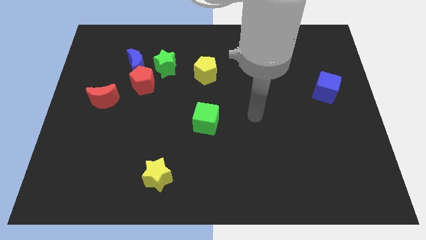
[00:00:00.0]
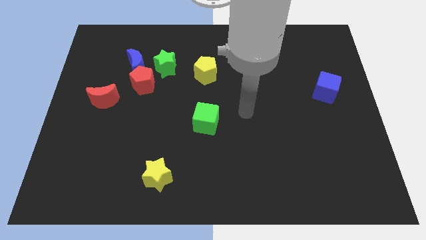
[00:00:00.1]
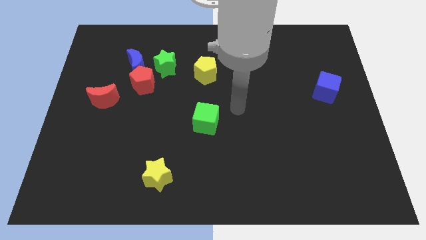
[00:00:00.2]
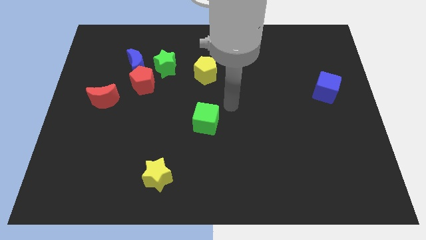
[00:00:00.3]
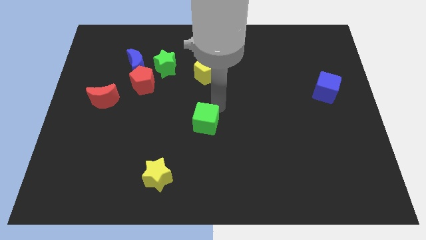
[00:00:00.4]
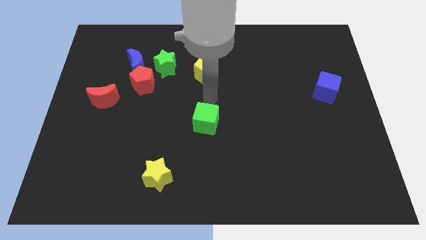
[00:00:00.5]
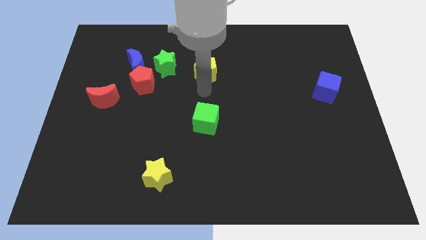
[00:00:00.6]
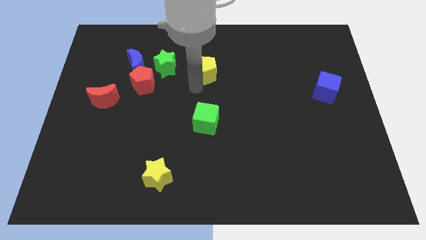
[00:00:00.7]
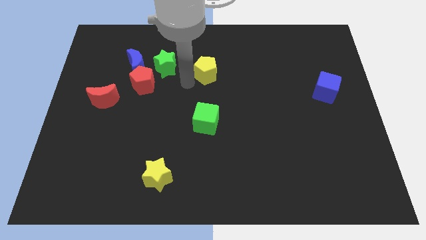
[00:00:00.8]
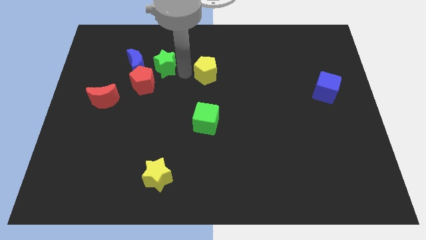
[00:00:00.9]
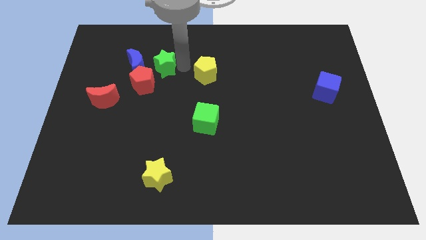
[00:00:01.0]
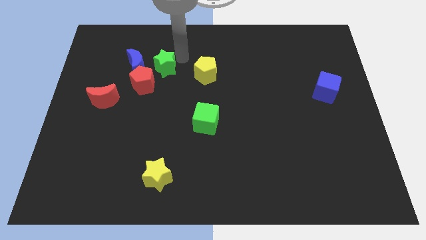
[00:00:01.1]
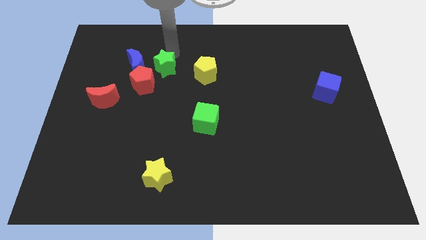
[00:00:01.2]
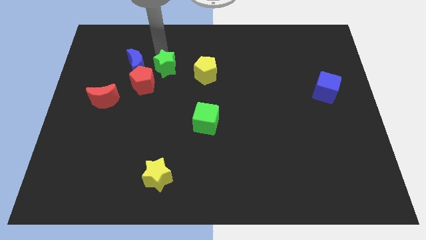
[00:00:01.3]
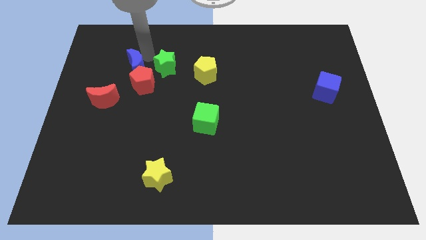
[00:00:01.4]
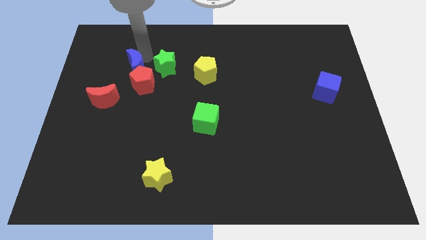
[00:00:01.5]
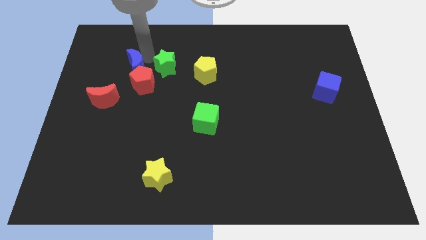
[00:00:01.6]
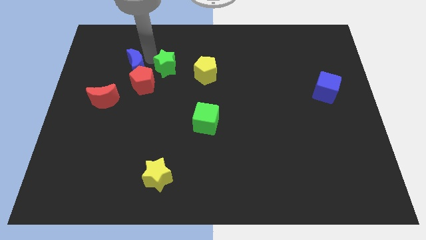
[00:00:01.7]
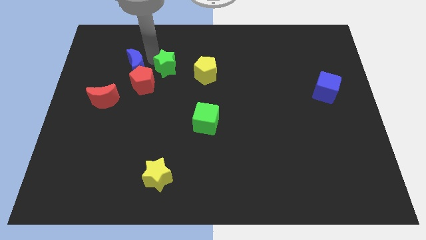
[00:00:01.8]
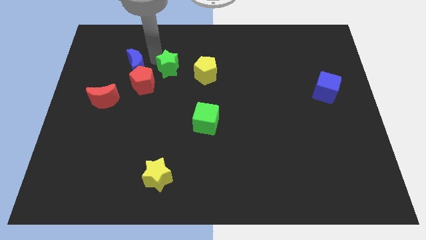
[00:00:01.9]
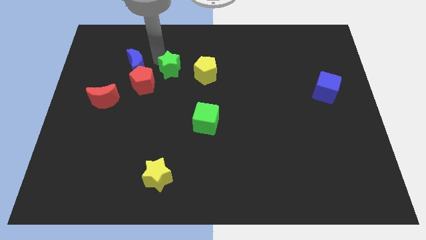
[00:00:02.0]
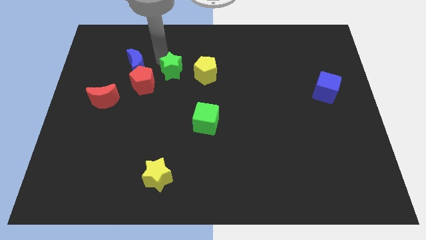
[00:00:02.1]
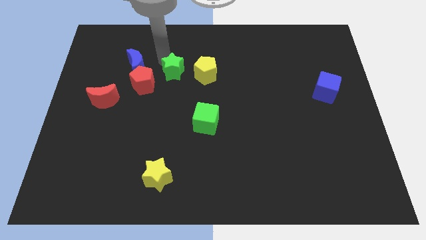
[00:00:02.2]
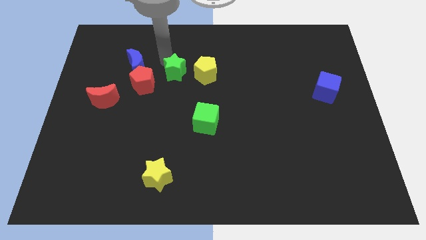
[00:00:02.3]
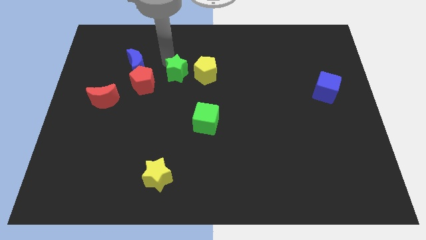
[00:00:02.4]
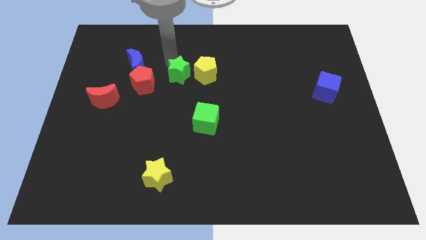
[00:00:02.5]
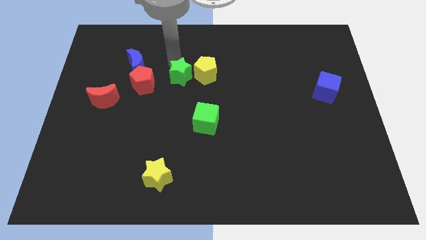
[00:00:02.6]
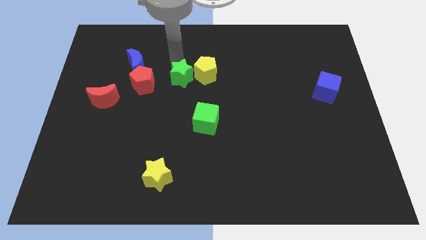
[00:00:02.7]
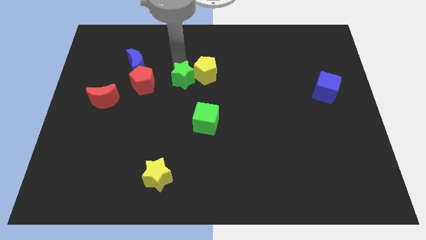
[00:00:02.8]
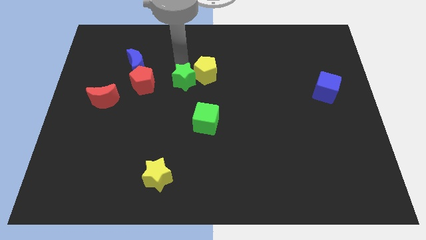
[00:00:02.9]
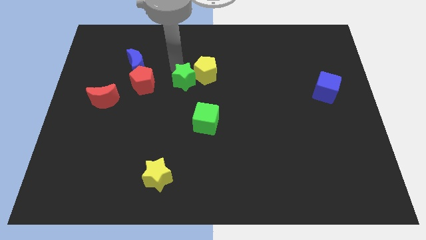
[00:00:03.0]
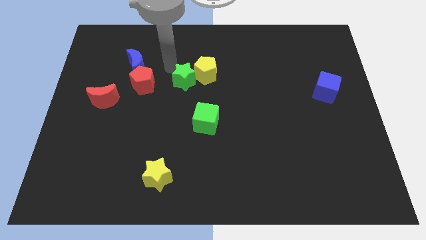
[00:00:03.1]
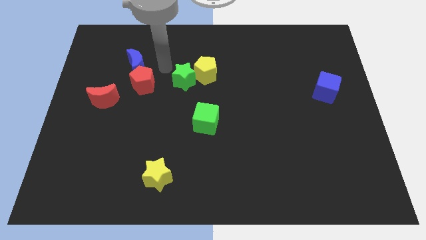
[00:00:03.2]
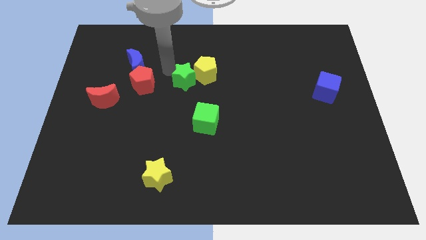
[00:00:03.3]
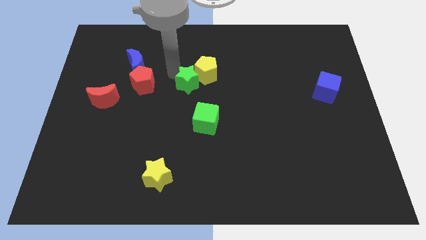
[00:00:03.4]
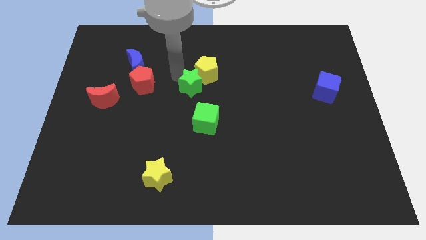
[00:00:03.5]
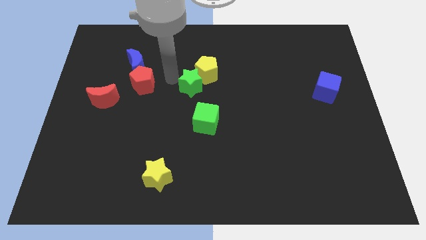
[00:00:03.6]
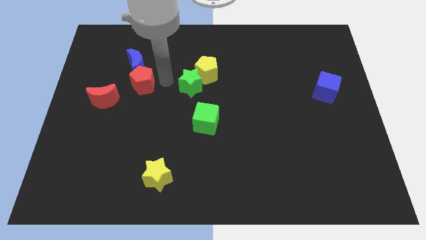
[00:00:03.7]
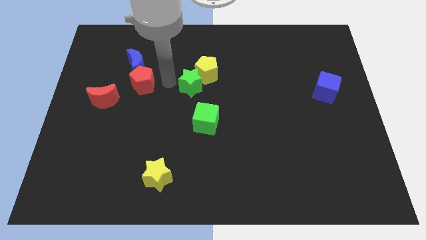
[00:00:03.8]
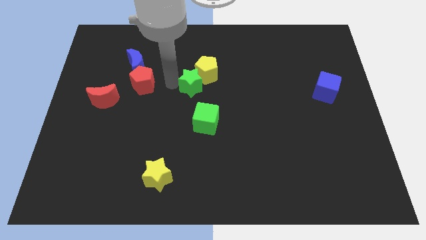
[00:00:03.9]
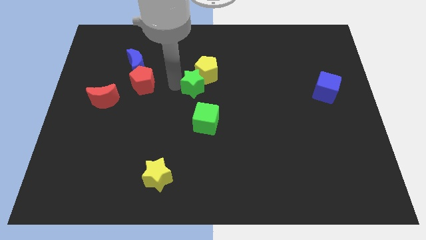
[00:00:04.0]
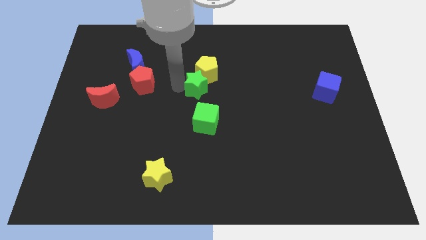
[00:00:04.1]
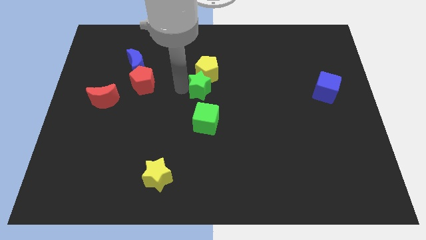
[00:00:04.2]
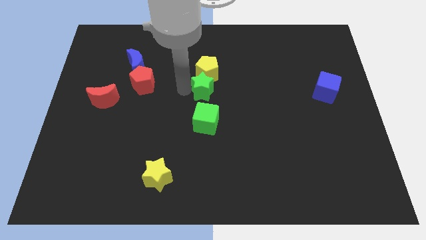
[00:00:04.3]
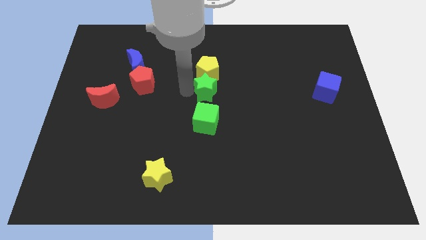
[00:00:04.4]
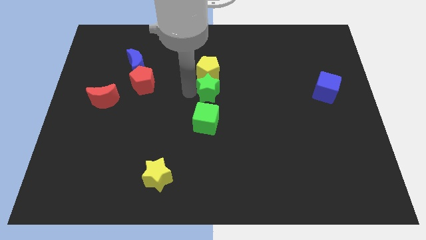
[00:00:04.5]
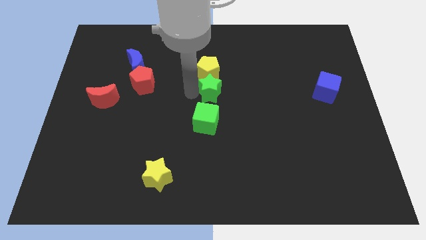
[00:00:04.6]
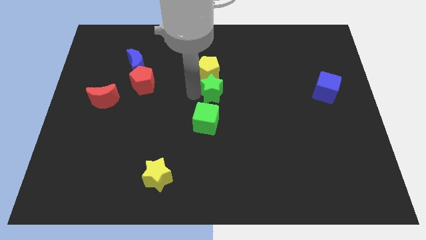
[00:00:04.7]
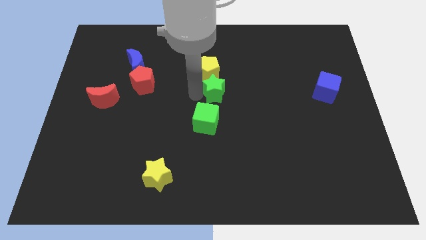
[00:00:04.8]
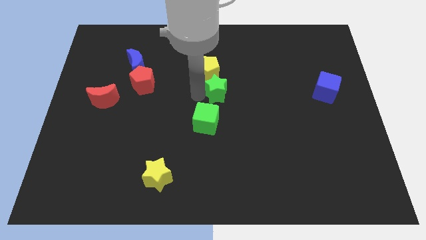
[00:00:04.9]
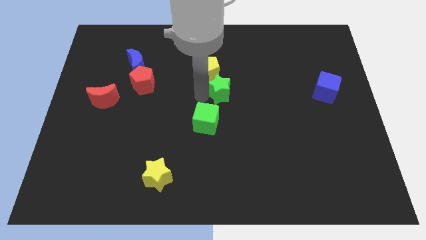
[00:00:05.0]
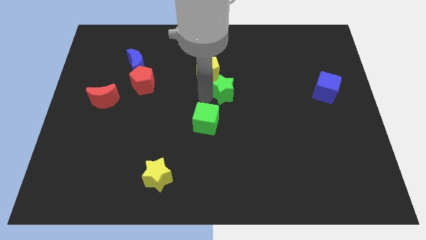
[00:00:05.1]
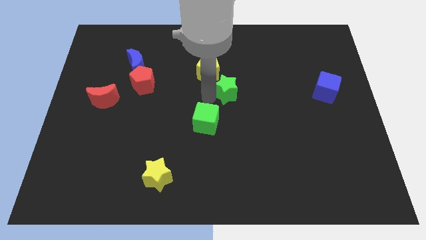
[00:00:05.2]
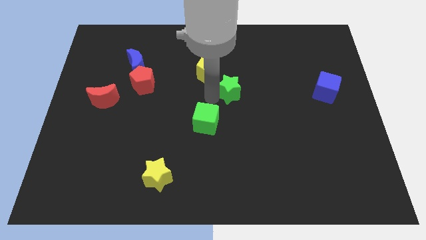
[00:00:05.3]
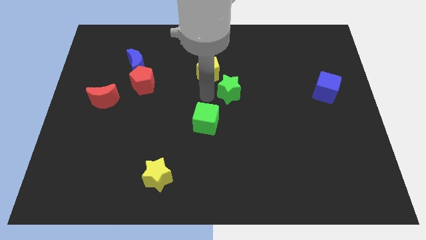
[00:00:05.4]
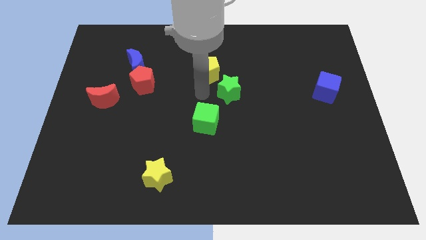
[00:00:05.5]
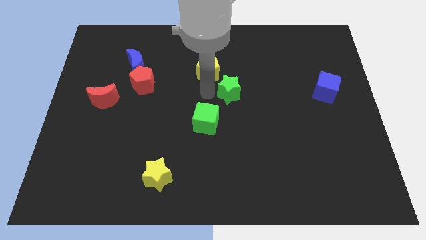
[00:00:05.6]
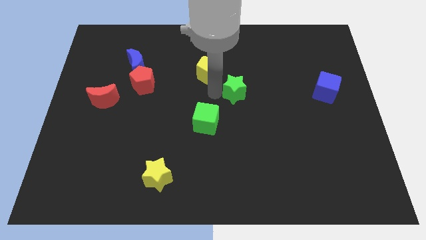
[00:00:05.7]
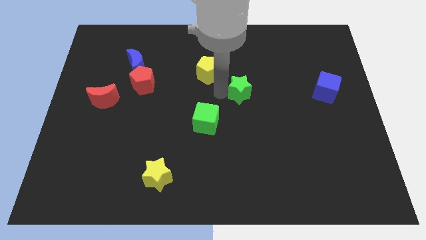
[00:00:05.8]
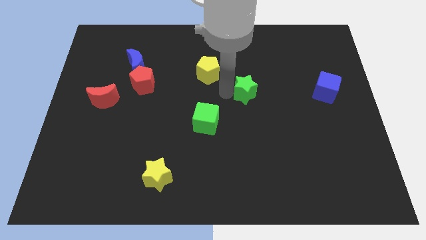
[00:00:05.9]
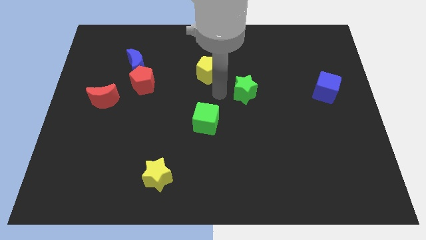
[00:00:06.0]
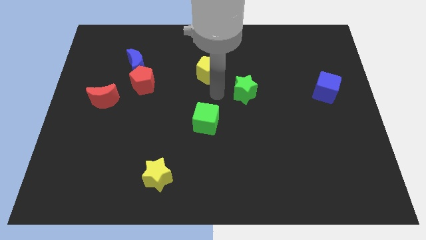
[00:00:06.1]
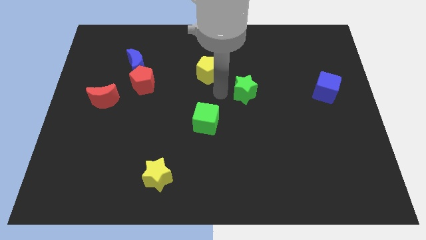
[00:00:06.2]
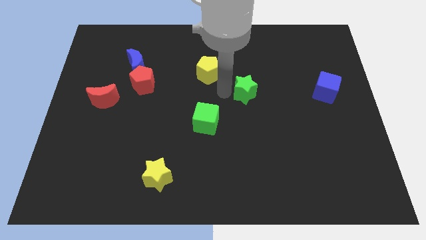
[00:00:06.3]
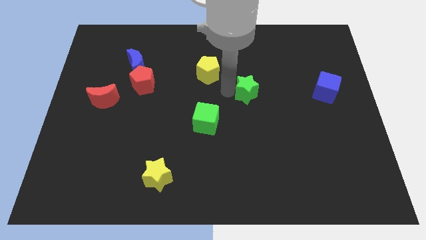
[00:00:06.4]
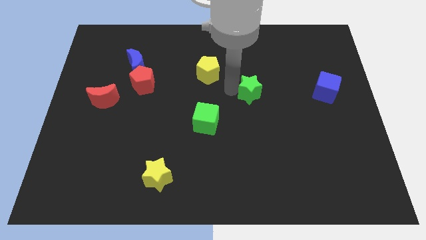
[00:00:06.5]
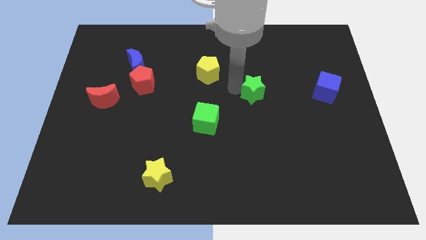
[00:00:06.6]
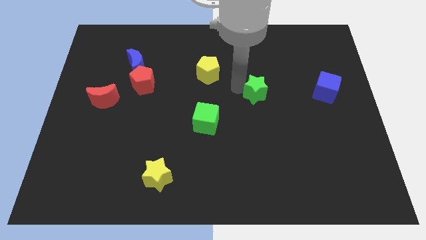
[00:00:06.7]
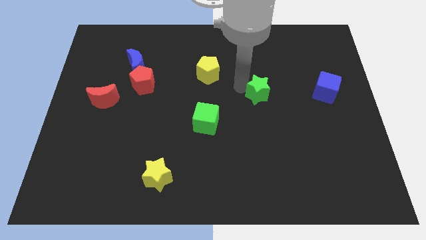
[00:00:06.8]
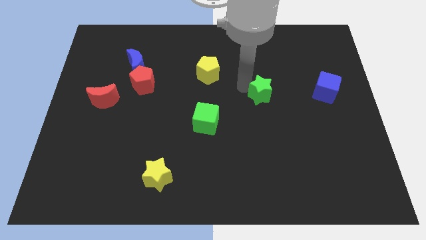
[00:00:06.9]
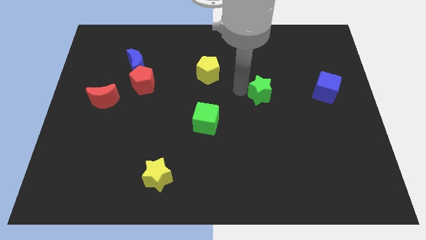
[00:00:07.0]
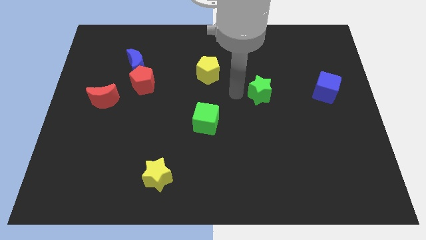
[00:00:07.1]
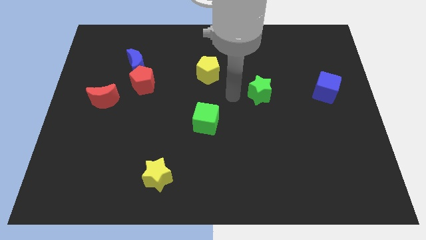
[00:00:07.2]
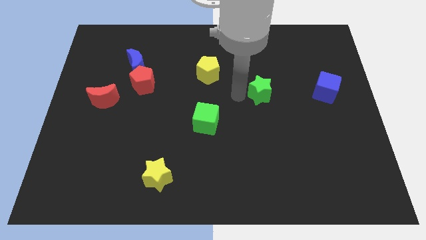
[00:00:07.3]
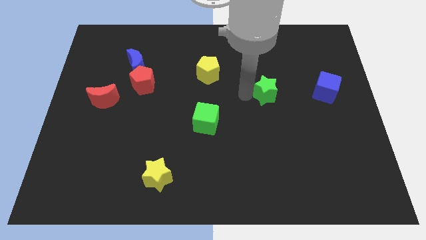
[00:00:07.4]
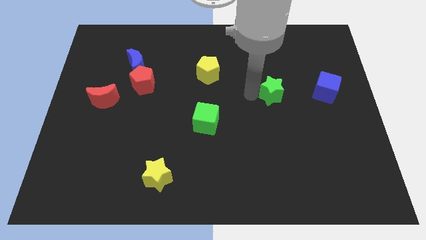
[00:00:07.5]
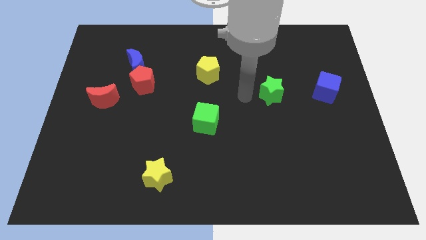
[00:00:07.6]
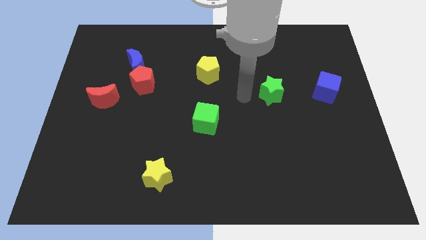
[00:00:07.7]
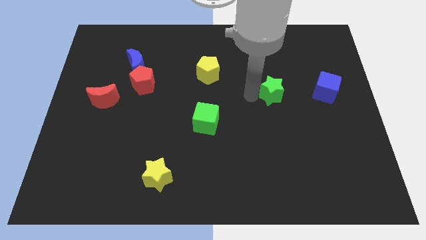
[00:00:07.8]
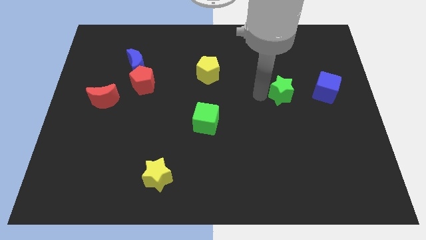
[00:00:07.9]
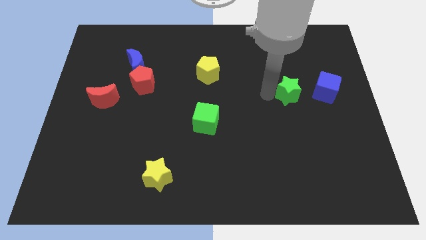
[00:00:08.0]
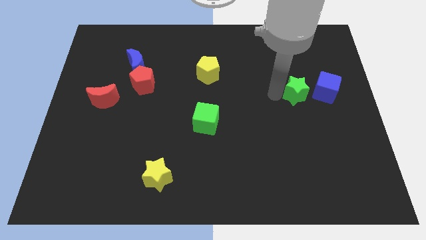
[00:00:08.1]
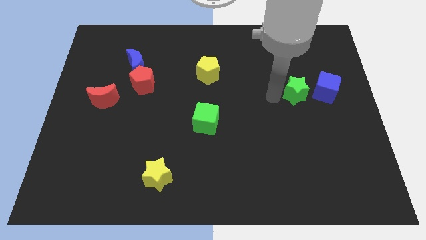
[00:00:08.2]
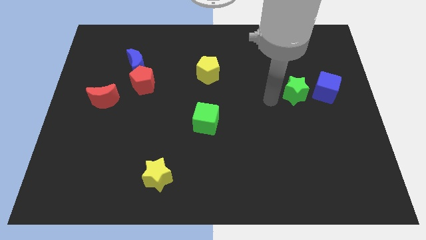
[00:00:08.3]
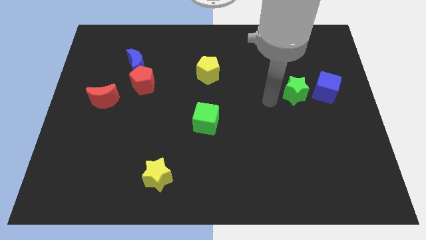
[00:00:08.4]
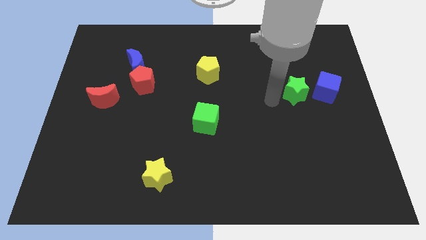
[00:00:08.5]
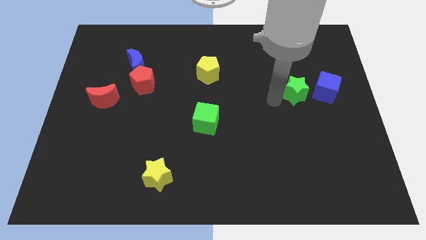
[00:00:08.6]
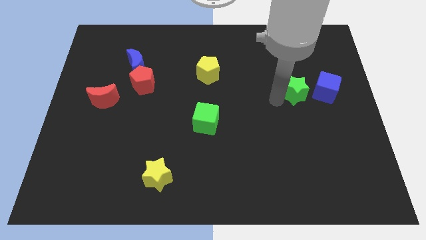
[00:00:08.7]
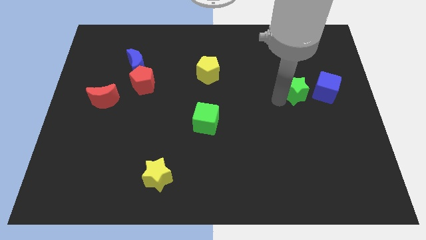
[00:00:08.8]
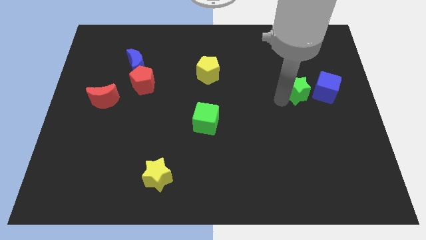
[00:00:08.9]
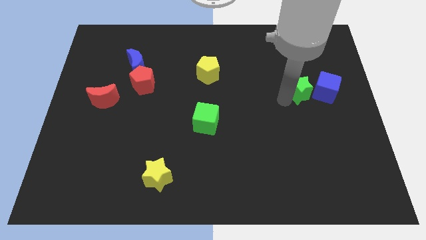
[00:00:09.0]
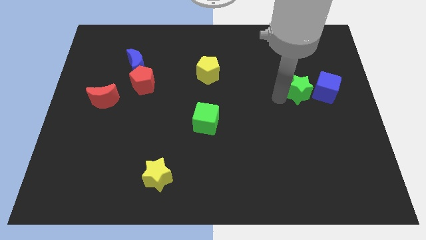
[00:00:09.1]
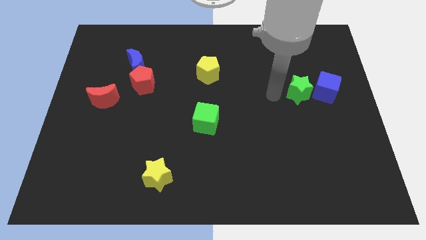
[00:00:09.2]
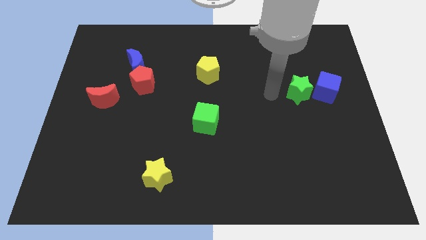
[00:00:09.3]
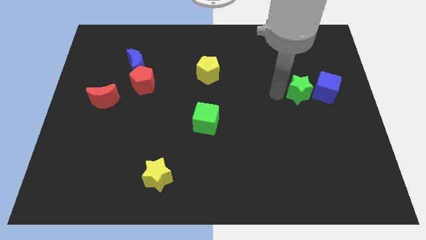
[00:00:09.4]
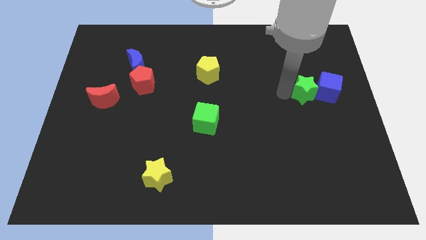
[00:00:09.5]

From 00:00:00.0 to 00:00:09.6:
slide the green star towards the blue cube
